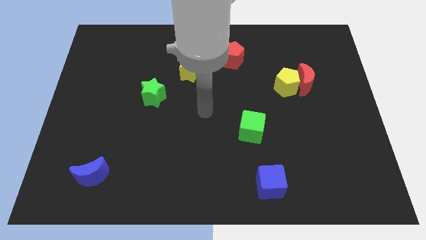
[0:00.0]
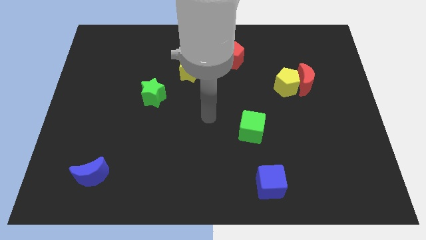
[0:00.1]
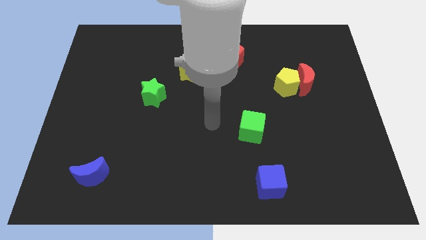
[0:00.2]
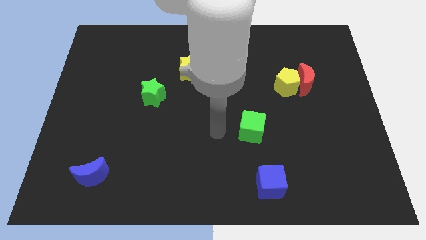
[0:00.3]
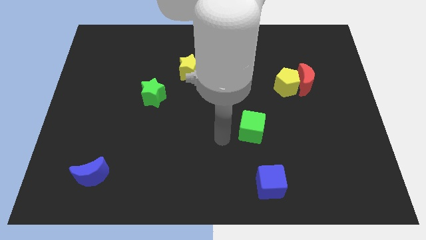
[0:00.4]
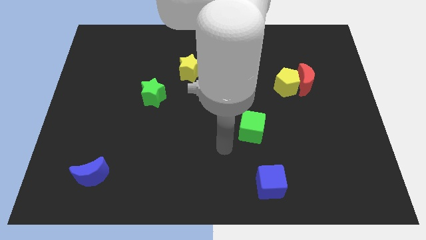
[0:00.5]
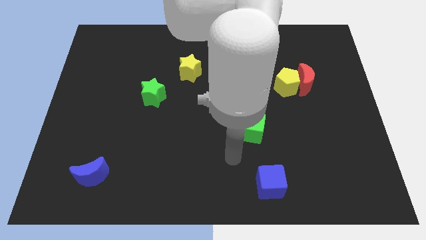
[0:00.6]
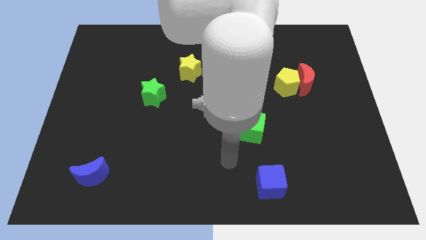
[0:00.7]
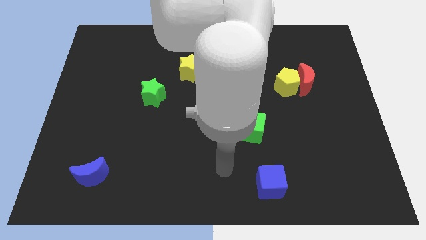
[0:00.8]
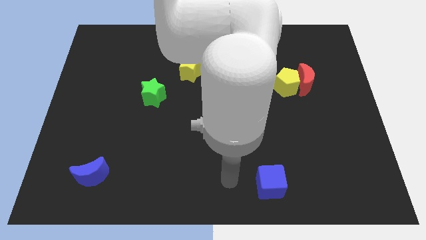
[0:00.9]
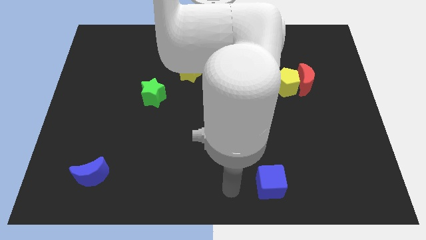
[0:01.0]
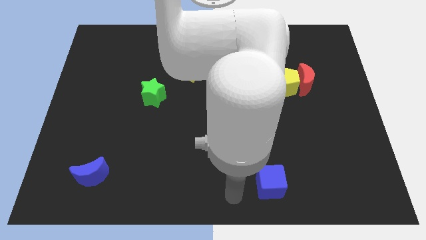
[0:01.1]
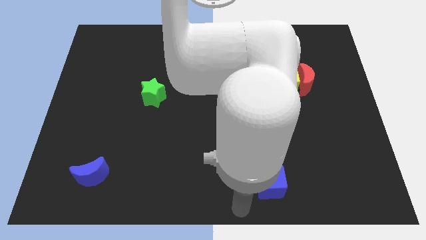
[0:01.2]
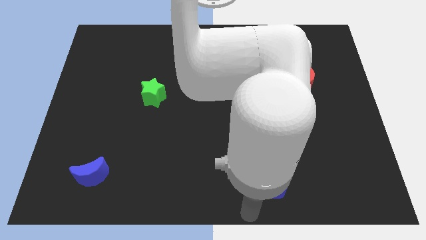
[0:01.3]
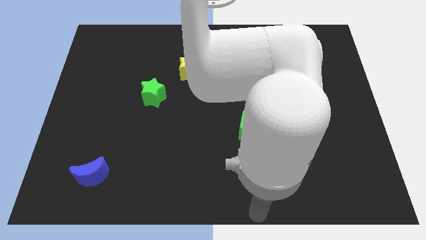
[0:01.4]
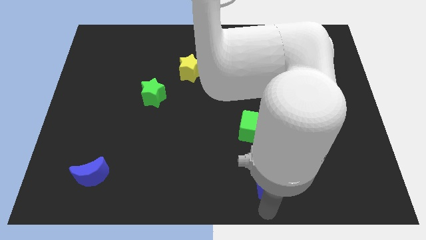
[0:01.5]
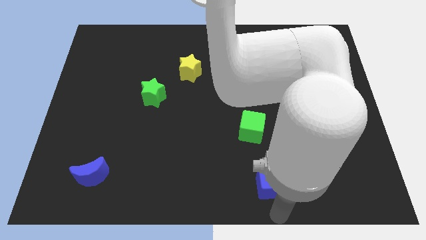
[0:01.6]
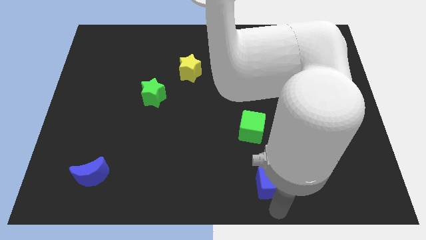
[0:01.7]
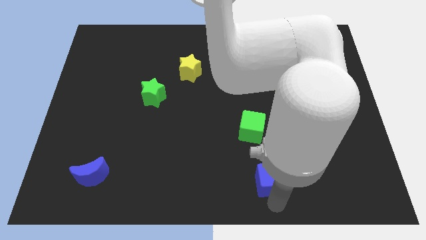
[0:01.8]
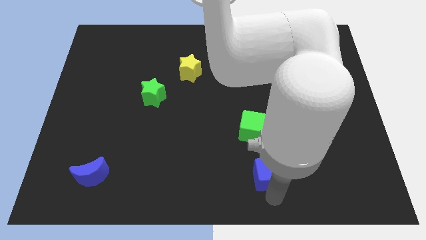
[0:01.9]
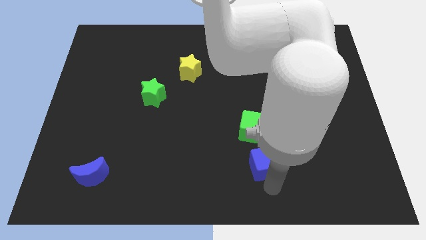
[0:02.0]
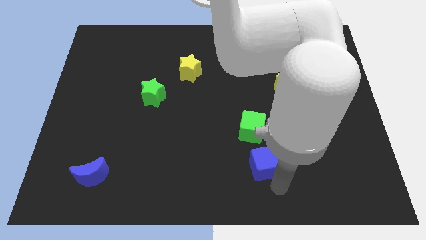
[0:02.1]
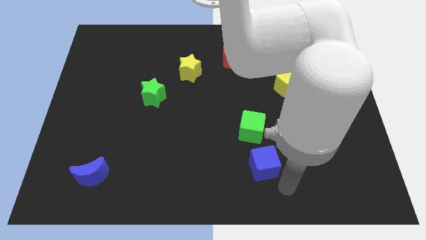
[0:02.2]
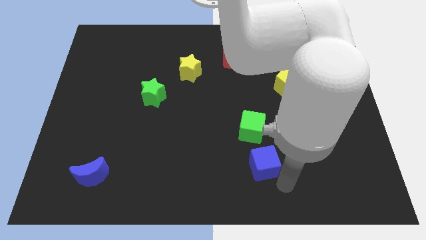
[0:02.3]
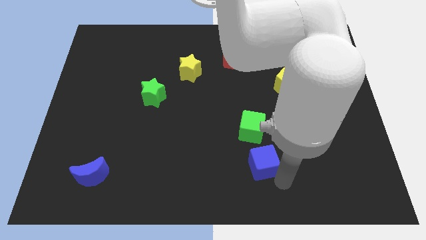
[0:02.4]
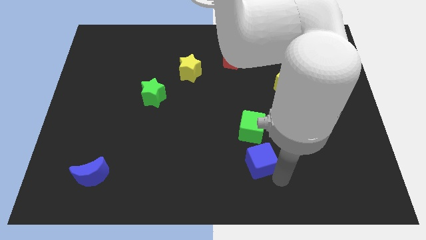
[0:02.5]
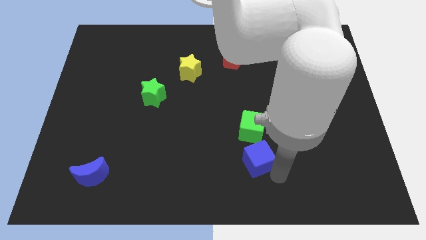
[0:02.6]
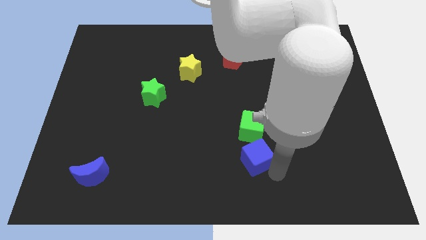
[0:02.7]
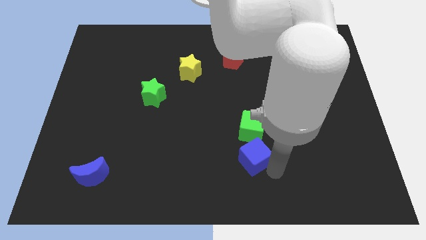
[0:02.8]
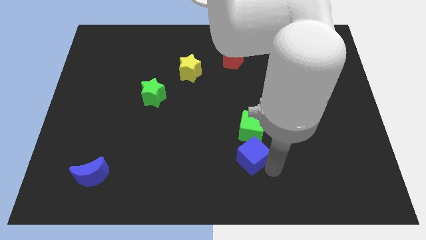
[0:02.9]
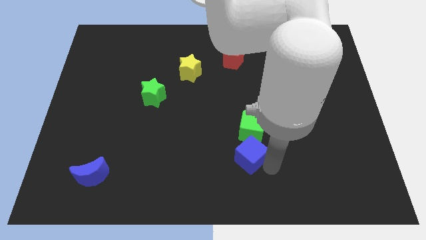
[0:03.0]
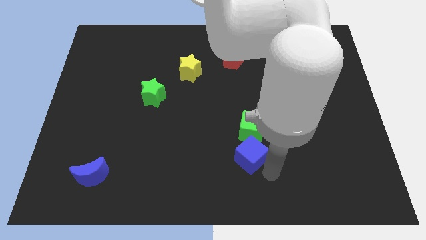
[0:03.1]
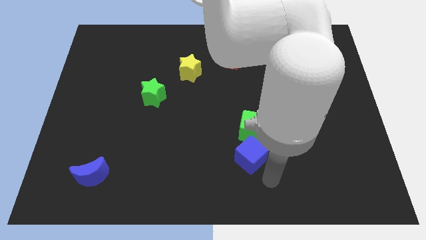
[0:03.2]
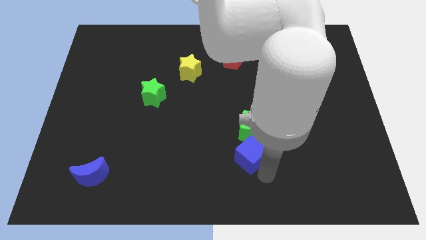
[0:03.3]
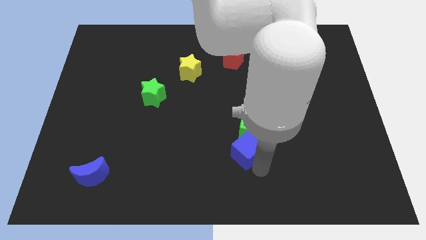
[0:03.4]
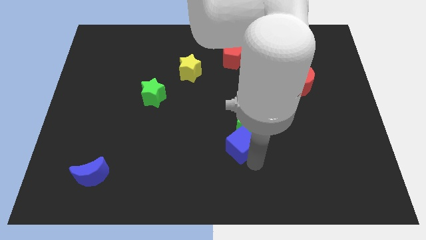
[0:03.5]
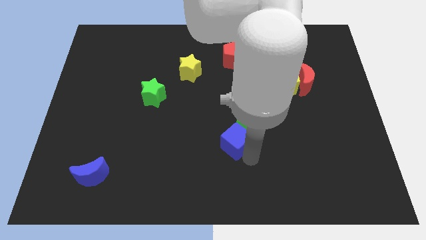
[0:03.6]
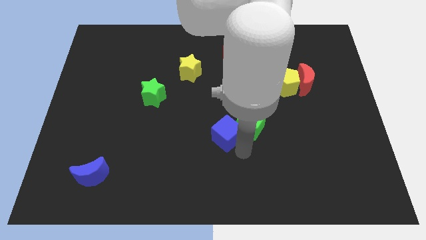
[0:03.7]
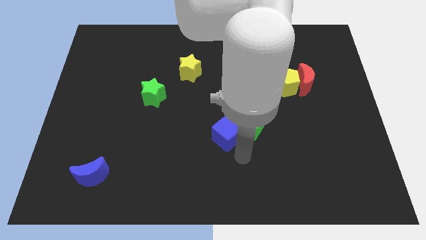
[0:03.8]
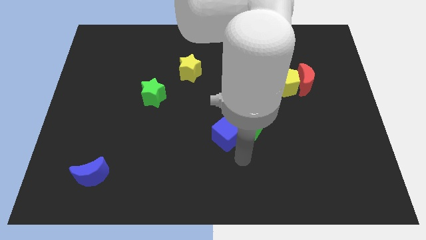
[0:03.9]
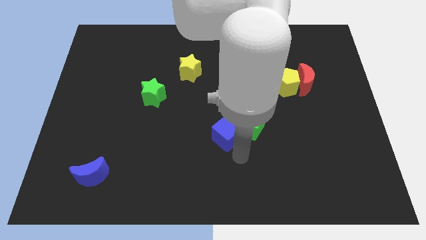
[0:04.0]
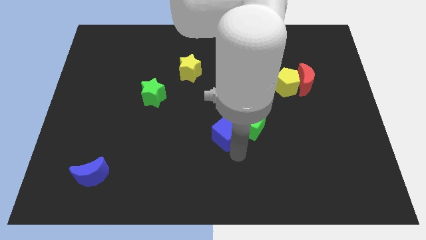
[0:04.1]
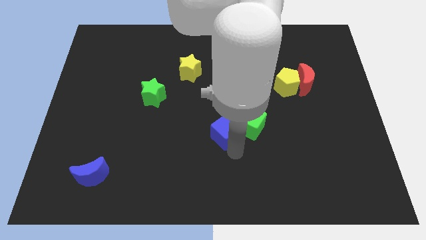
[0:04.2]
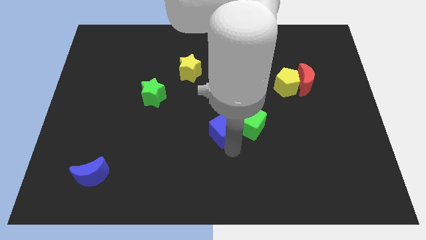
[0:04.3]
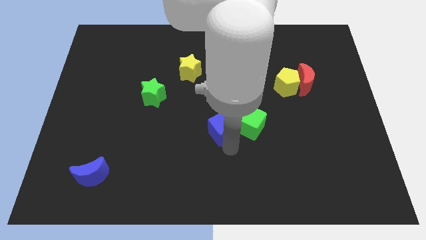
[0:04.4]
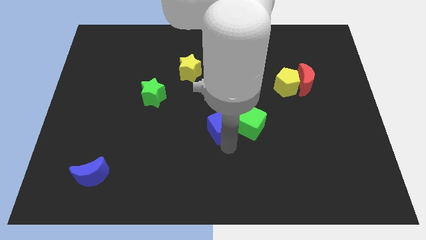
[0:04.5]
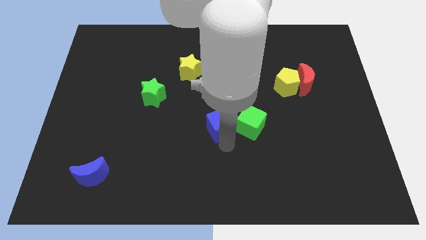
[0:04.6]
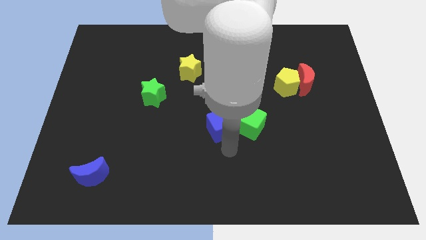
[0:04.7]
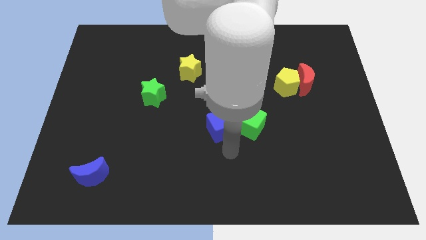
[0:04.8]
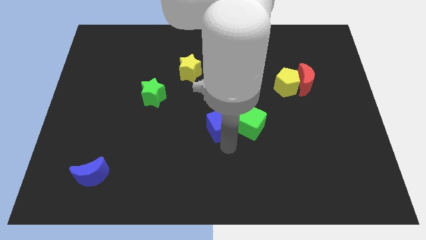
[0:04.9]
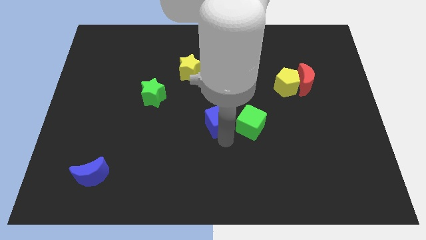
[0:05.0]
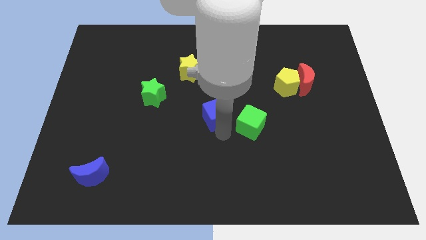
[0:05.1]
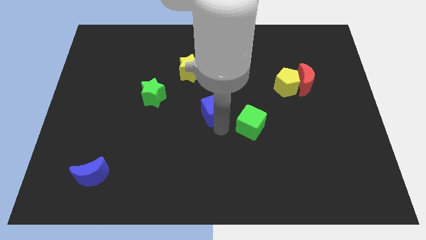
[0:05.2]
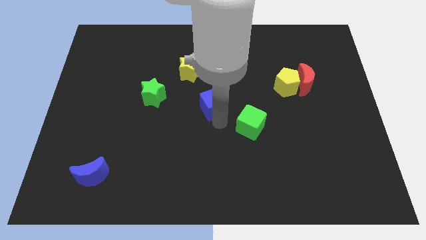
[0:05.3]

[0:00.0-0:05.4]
put the blue cube to the right of the green star

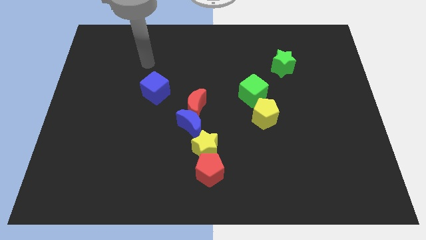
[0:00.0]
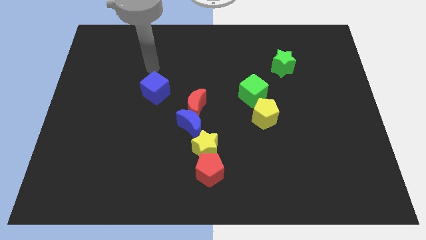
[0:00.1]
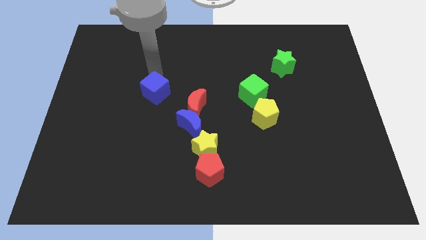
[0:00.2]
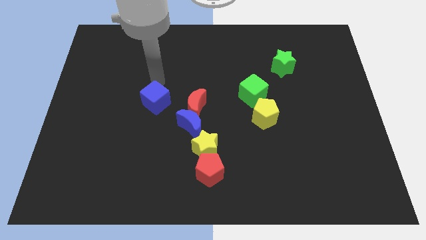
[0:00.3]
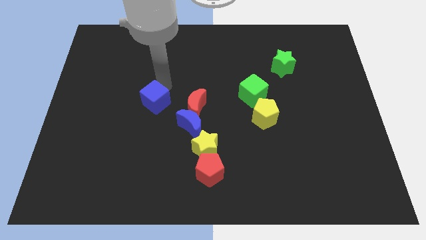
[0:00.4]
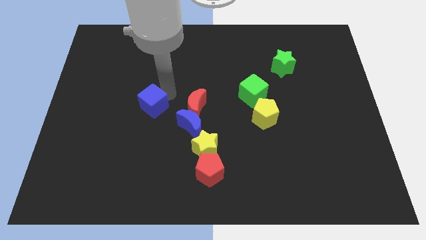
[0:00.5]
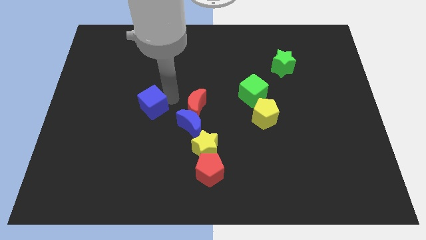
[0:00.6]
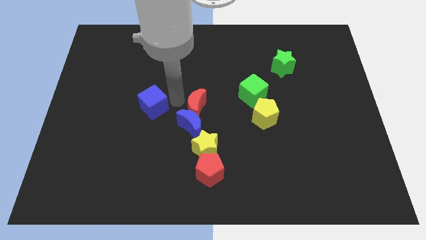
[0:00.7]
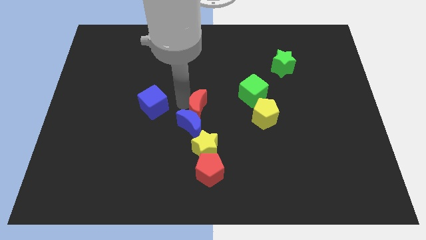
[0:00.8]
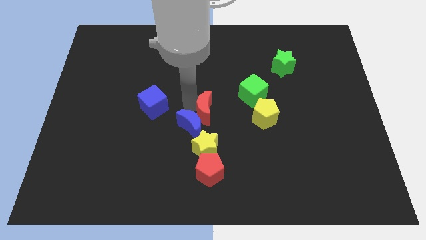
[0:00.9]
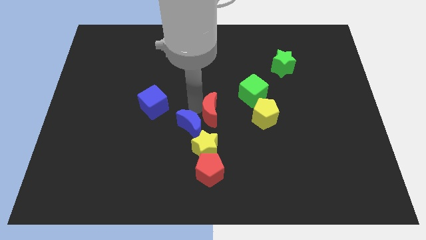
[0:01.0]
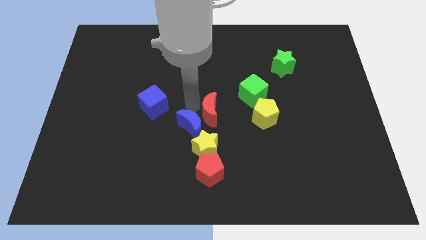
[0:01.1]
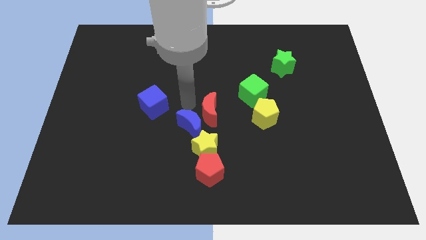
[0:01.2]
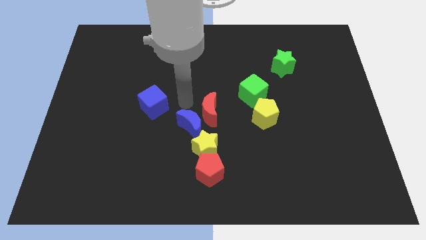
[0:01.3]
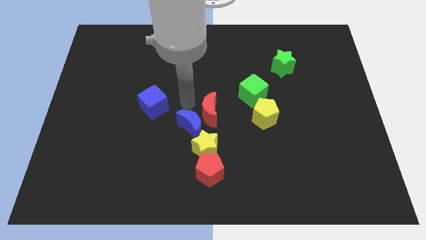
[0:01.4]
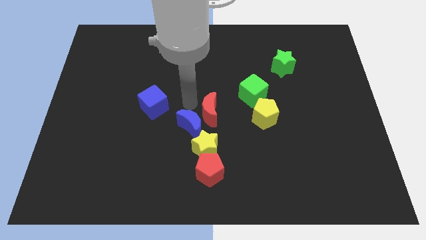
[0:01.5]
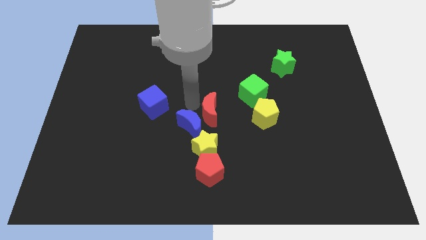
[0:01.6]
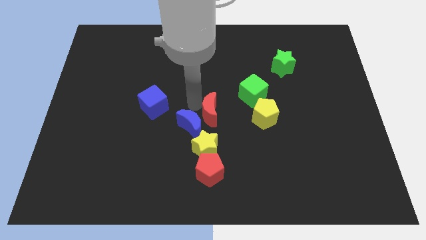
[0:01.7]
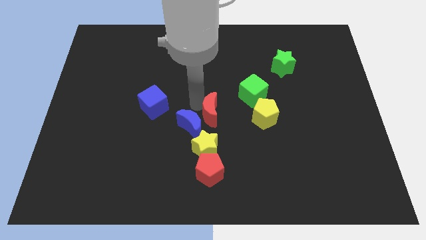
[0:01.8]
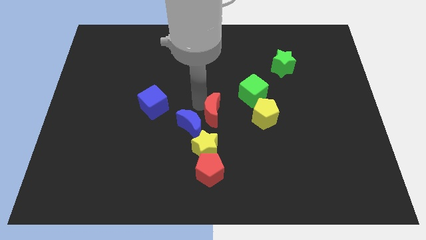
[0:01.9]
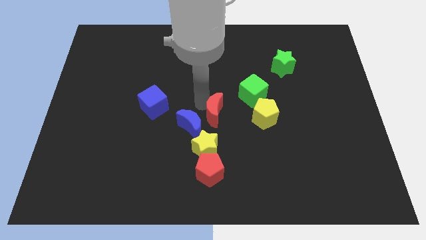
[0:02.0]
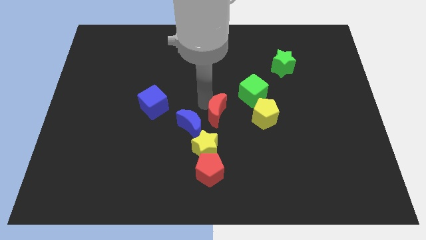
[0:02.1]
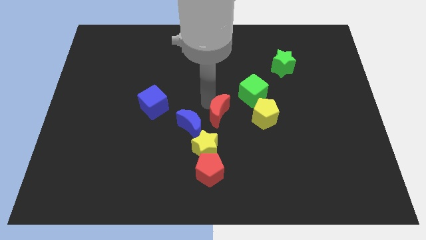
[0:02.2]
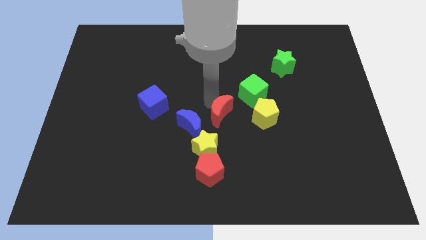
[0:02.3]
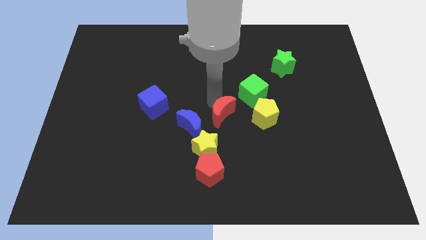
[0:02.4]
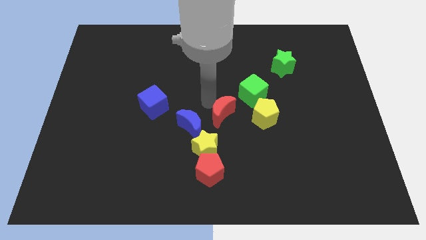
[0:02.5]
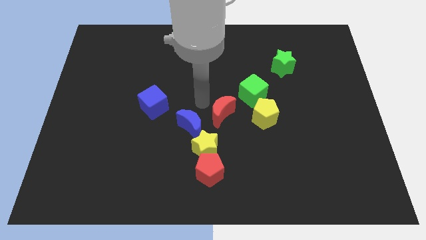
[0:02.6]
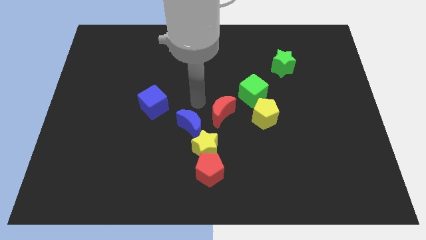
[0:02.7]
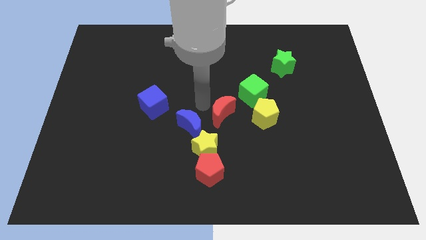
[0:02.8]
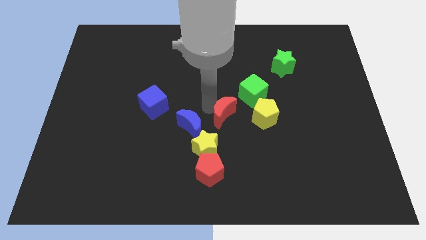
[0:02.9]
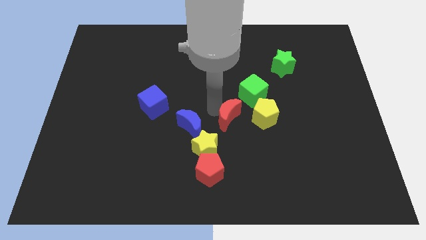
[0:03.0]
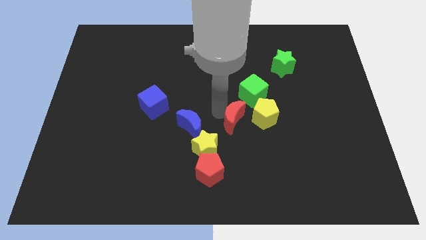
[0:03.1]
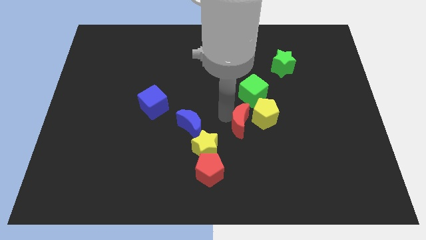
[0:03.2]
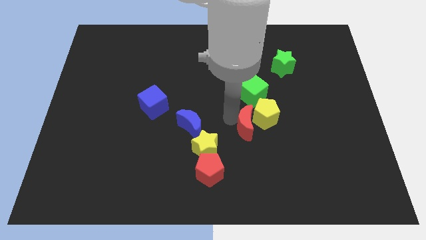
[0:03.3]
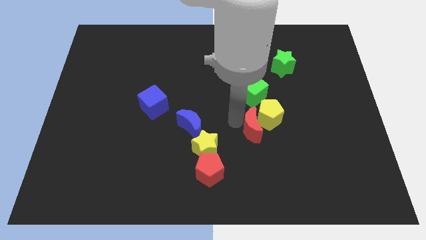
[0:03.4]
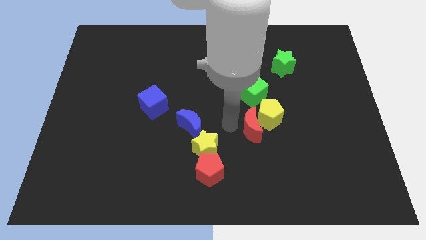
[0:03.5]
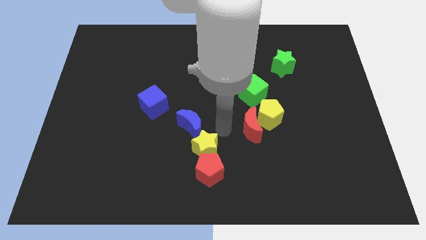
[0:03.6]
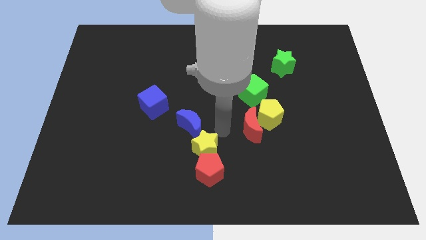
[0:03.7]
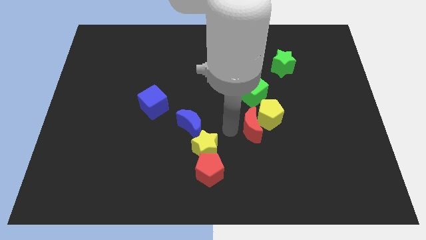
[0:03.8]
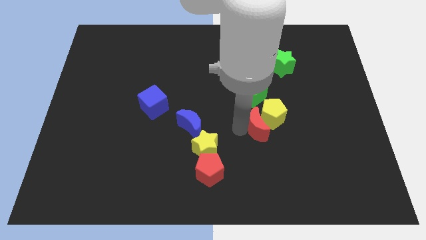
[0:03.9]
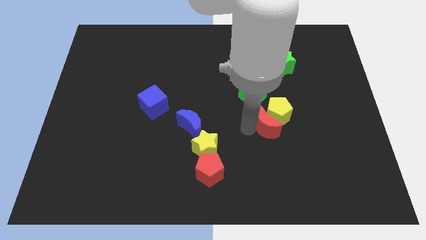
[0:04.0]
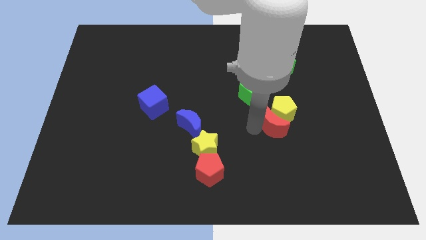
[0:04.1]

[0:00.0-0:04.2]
slide the red moon to the bottom right side of the green cube
